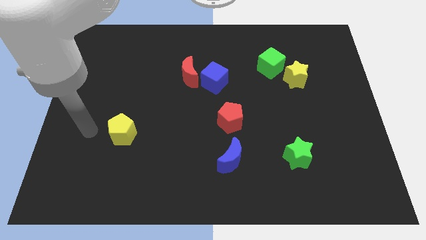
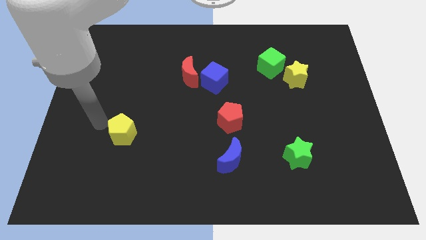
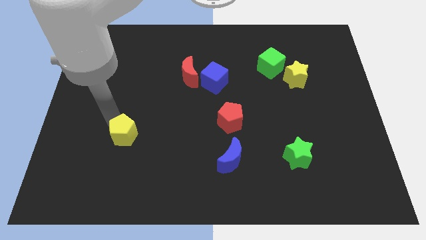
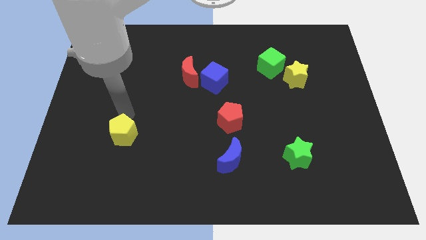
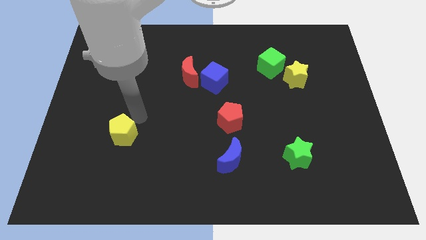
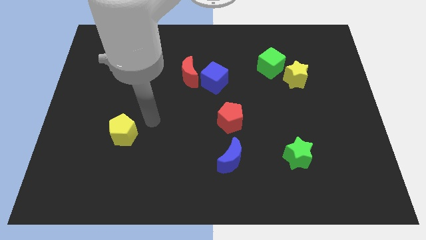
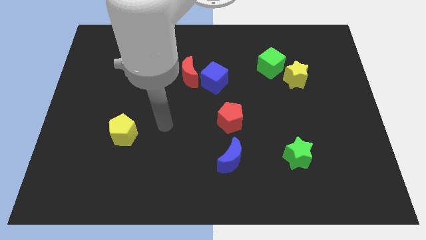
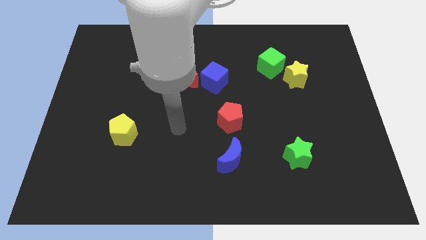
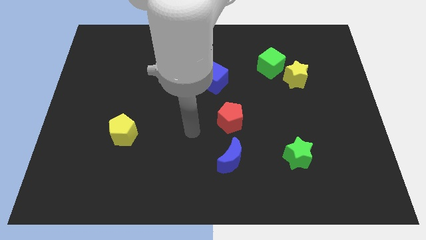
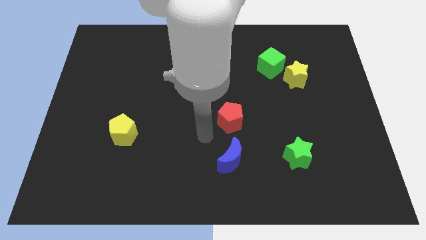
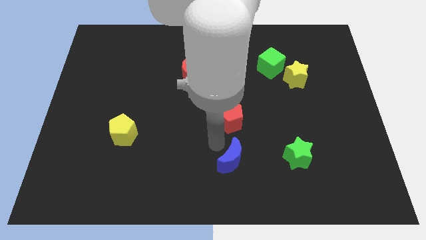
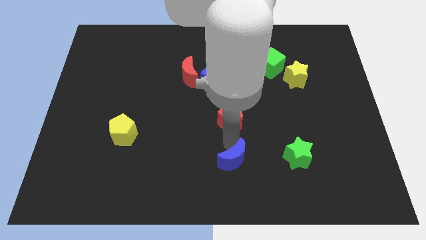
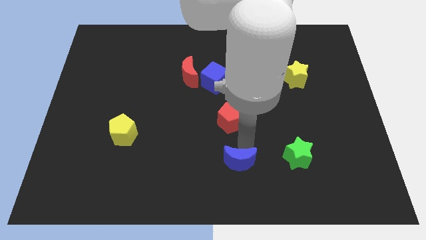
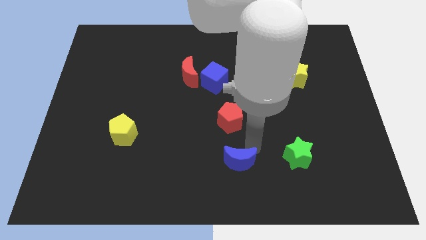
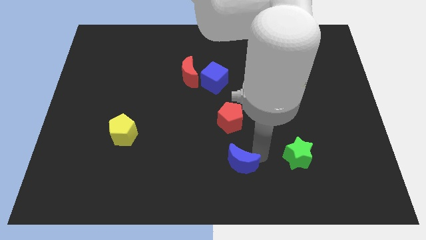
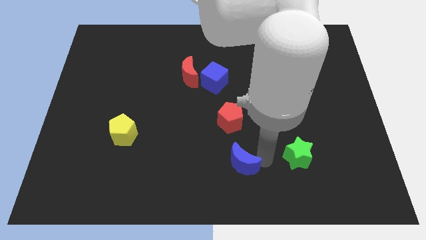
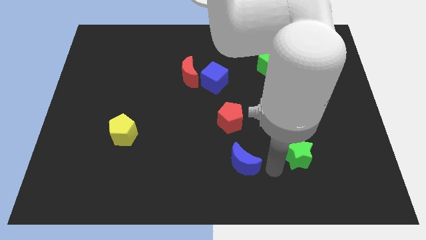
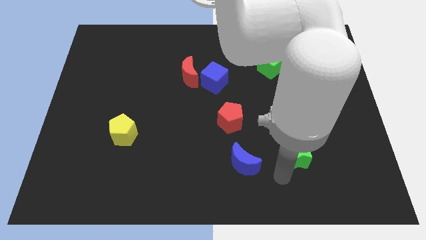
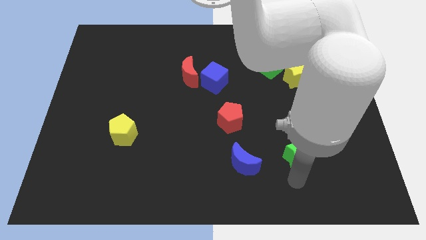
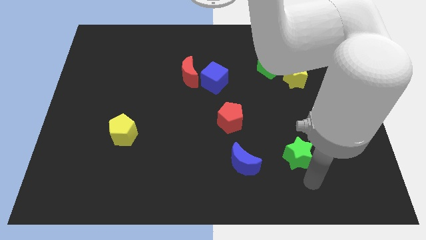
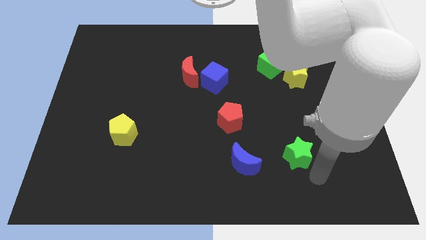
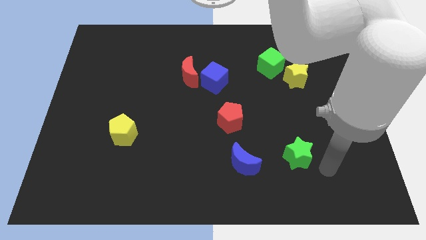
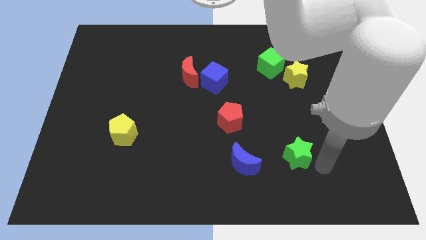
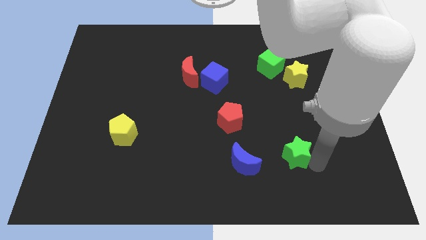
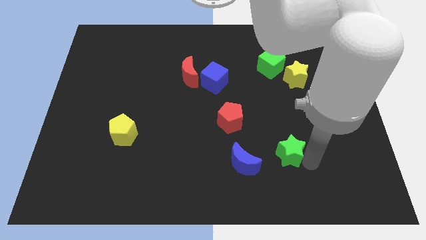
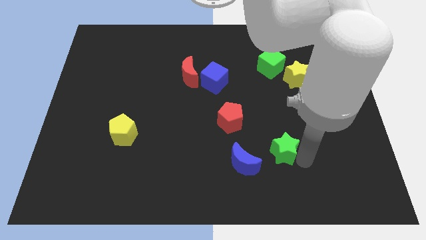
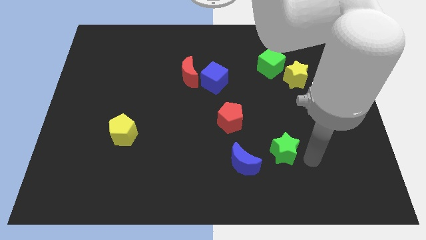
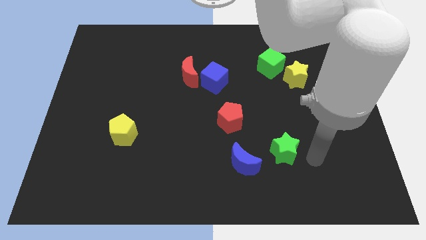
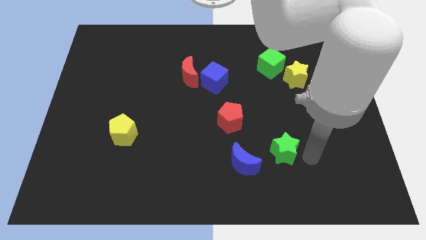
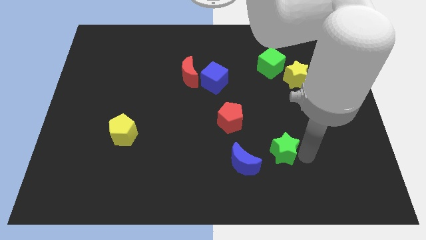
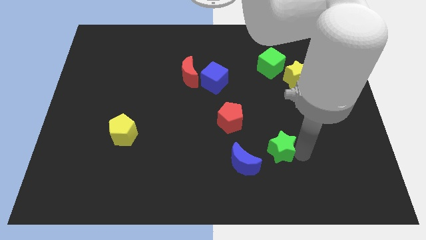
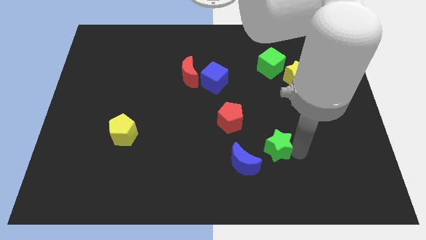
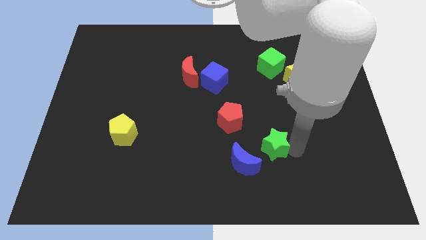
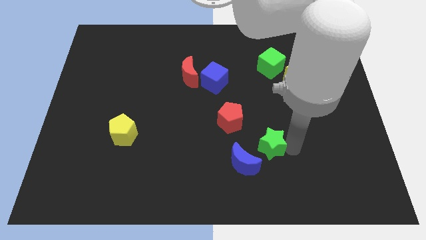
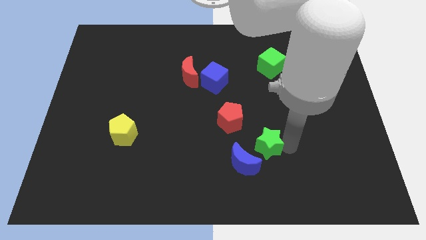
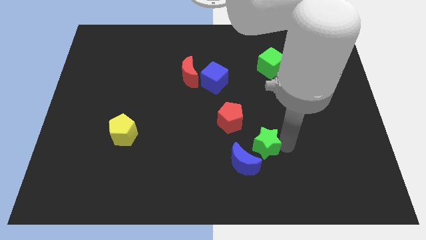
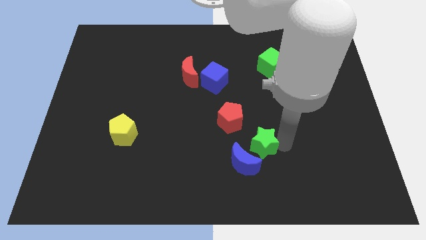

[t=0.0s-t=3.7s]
move the green star somewhat to the left

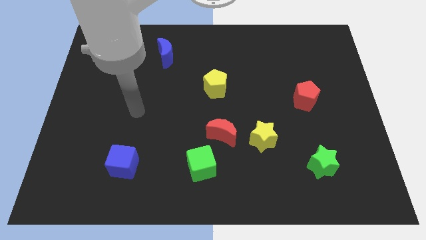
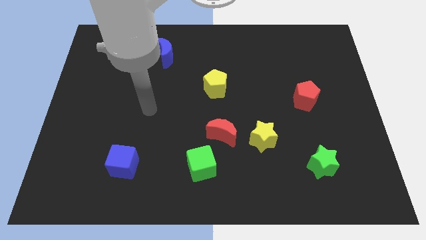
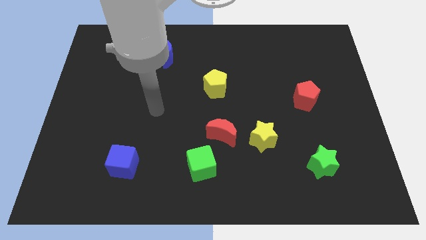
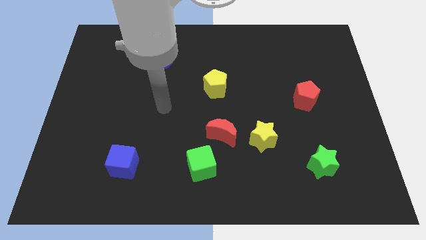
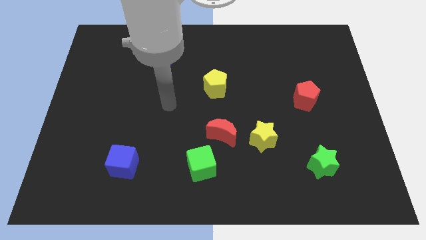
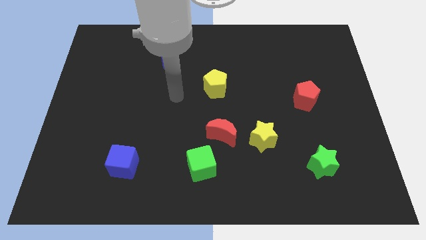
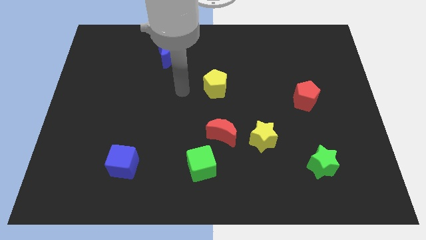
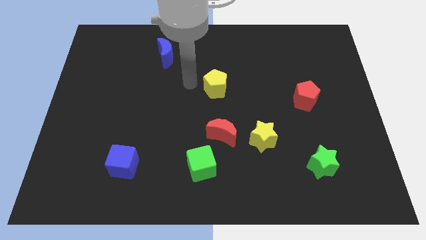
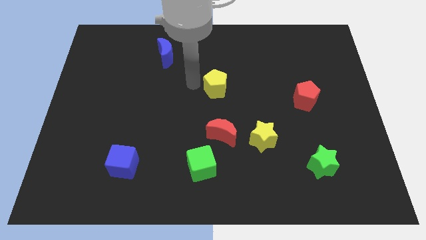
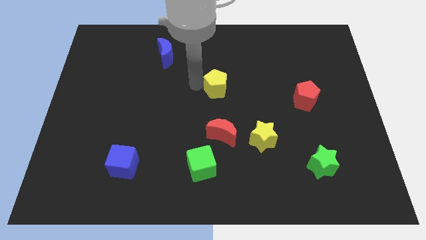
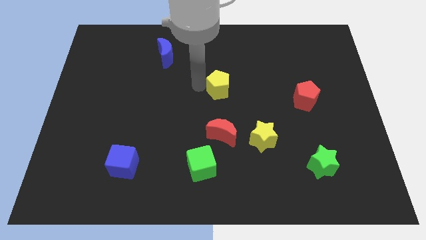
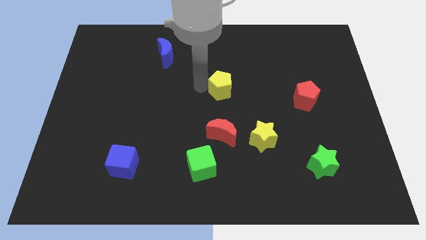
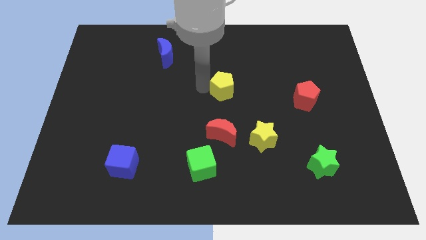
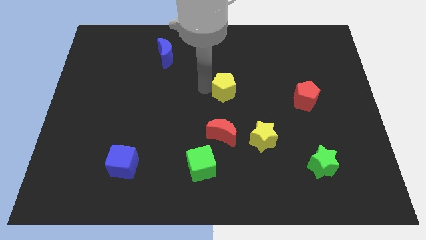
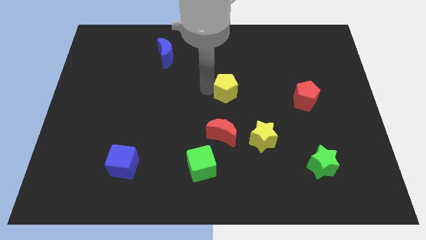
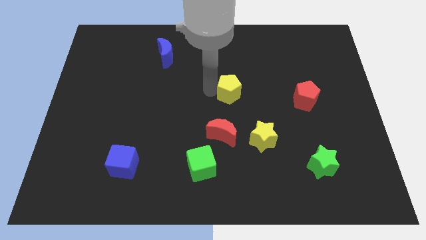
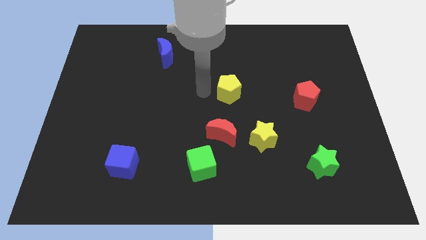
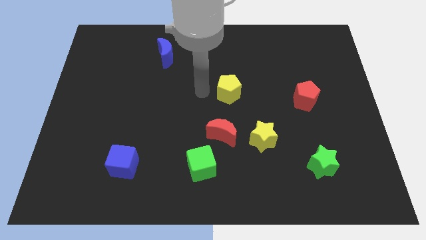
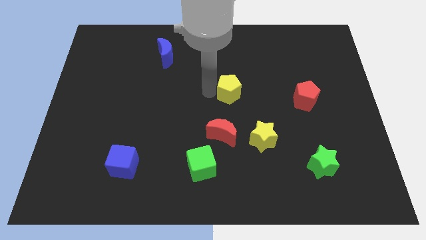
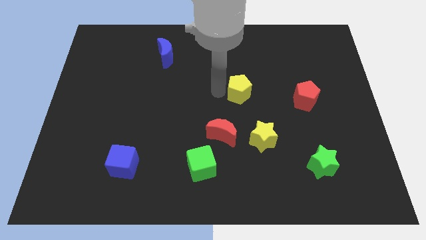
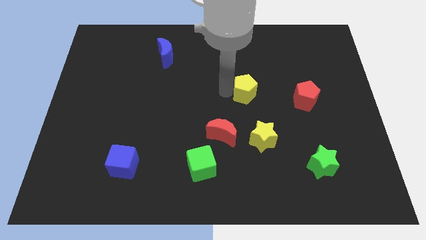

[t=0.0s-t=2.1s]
slightly push the yellow pentagon right

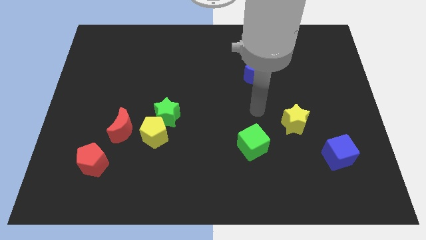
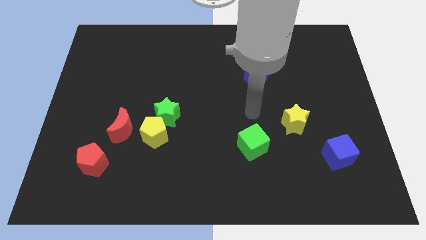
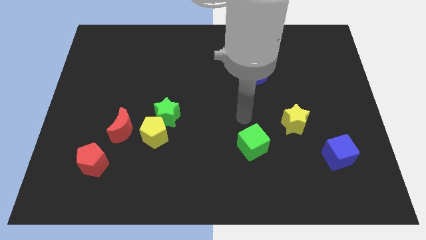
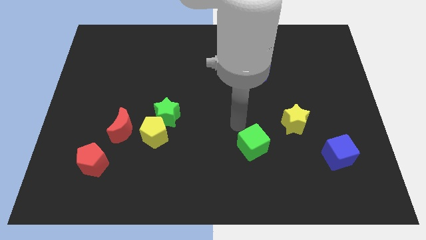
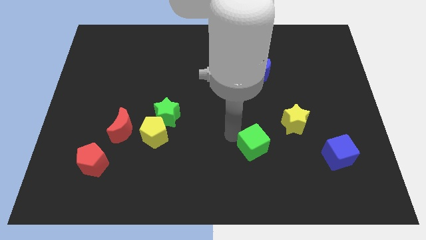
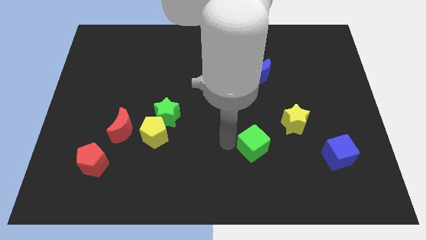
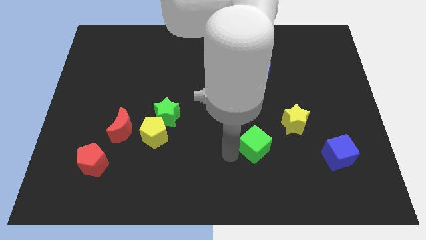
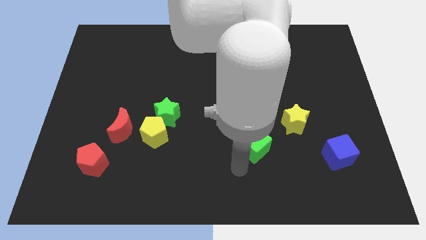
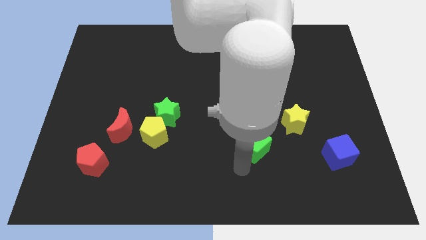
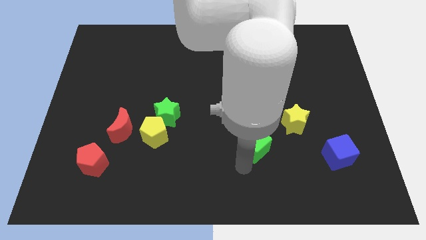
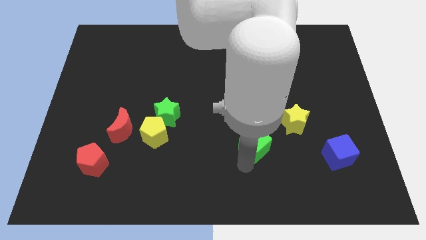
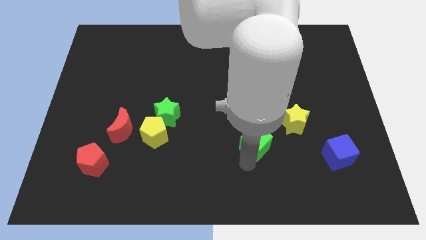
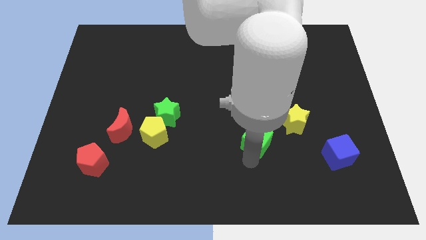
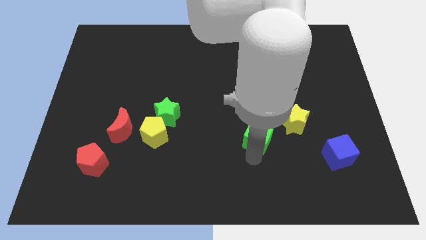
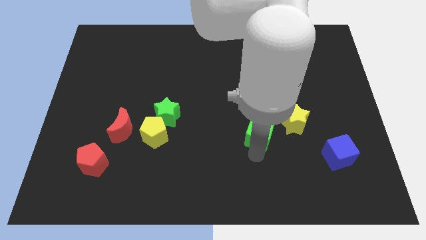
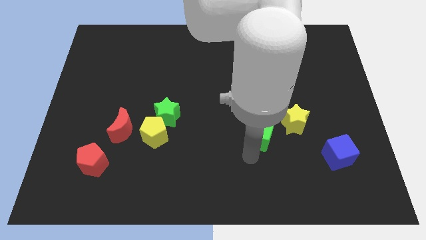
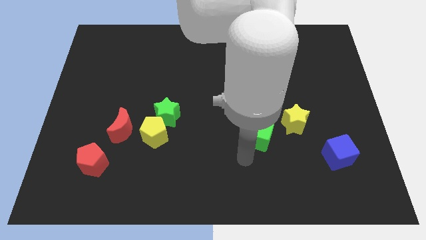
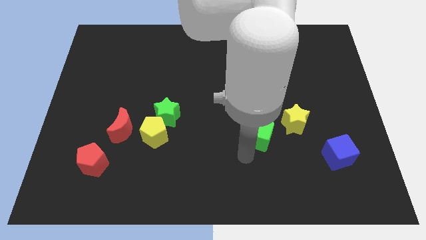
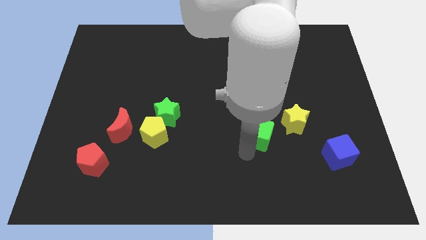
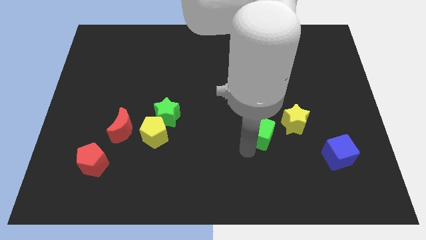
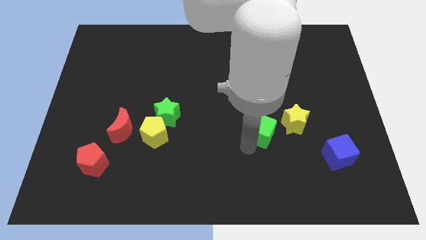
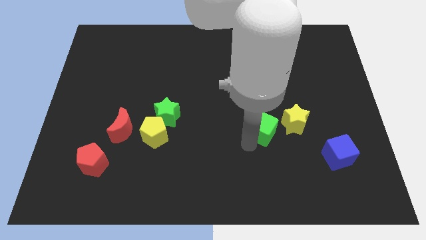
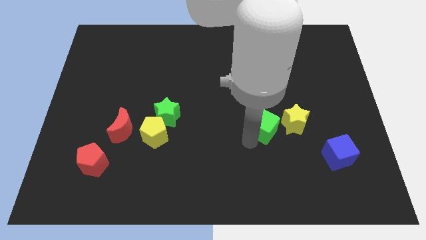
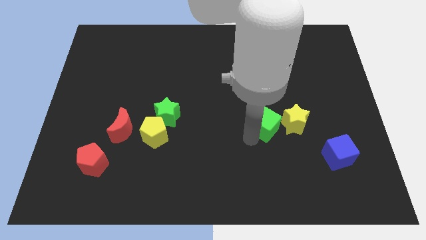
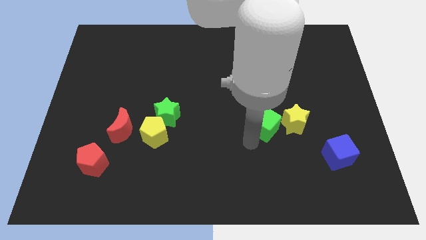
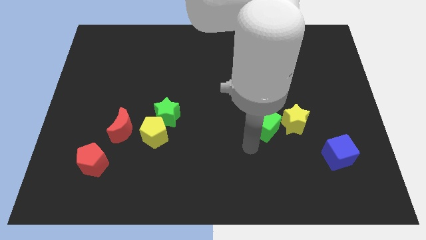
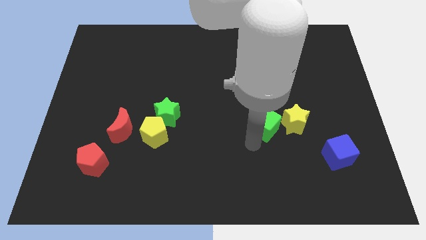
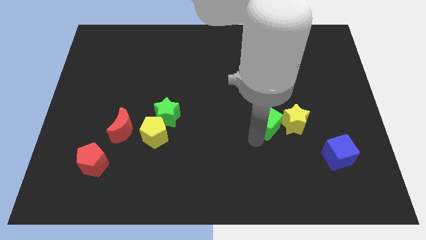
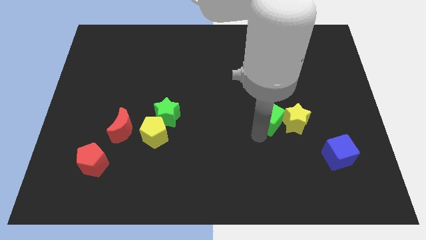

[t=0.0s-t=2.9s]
slightly slide the green cube up and then right
